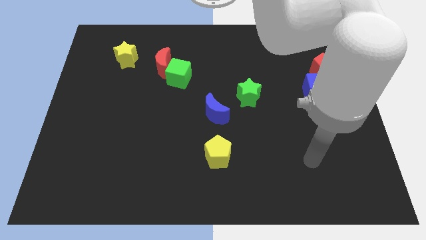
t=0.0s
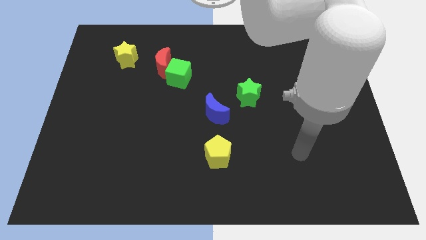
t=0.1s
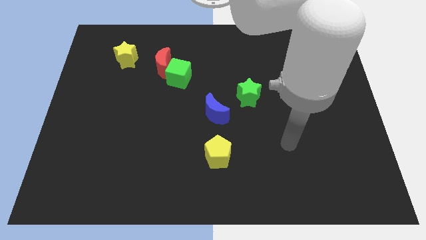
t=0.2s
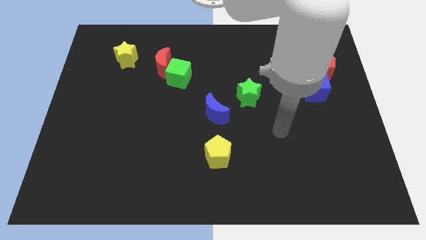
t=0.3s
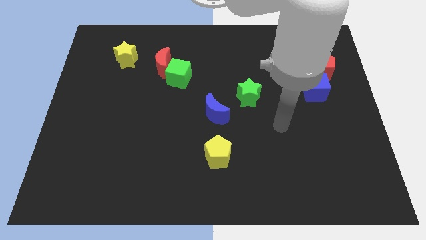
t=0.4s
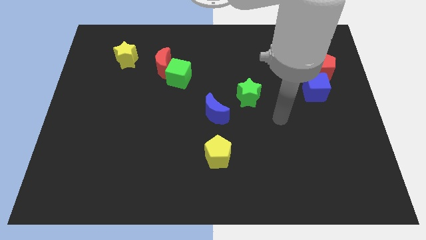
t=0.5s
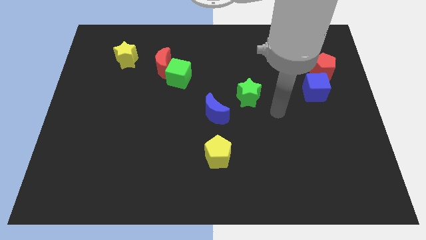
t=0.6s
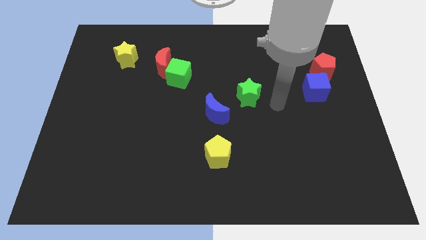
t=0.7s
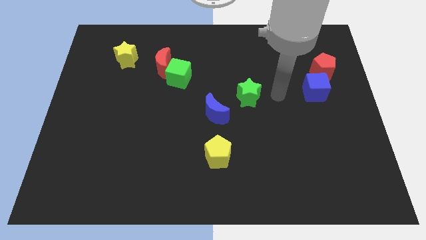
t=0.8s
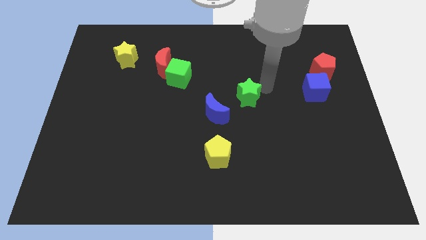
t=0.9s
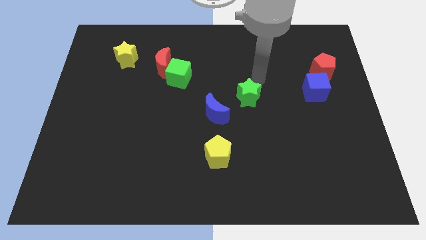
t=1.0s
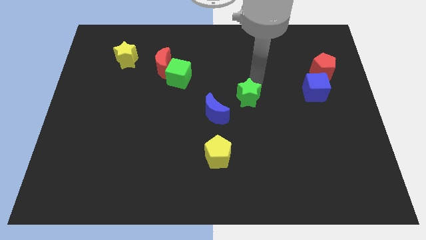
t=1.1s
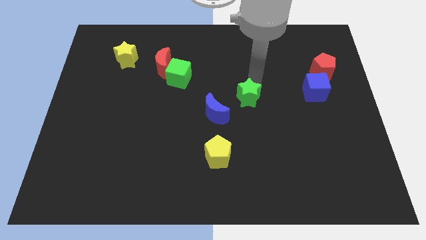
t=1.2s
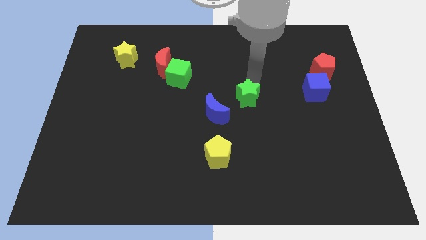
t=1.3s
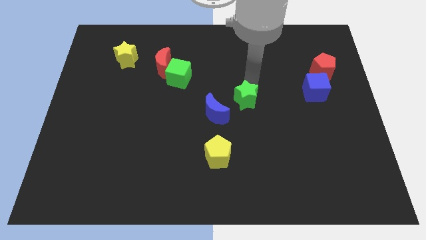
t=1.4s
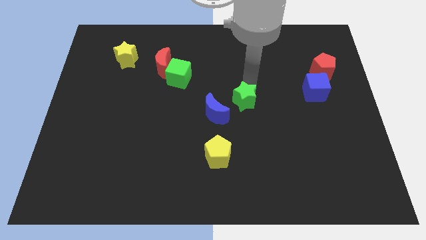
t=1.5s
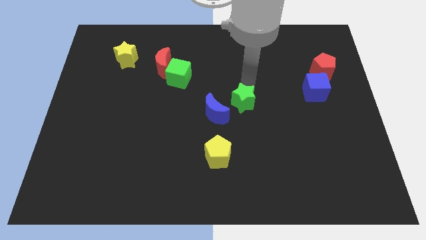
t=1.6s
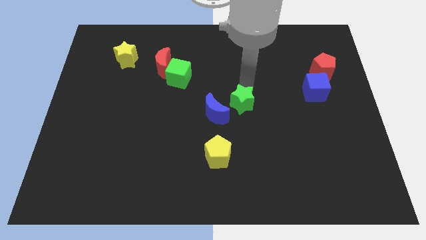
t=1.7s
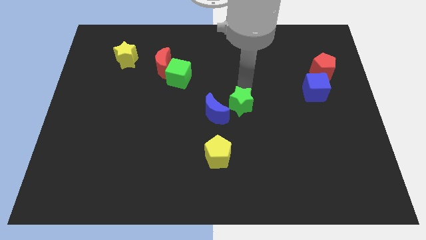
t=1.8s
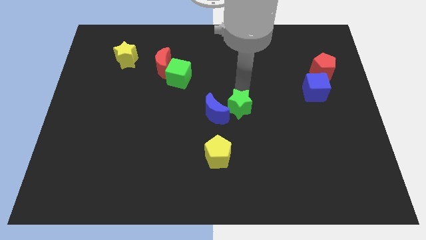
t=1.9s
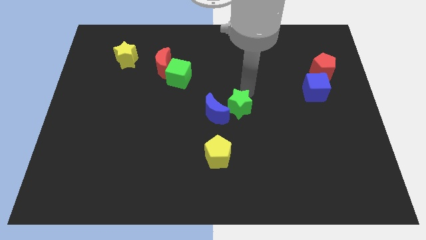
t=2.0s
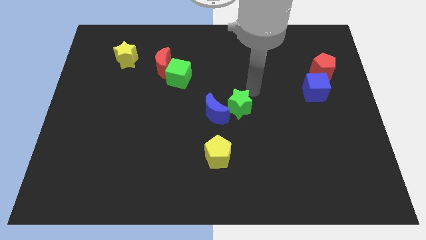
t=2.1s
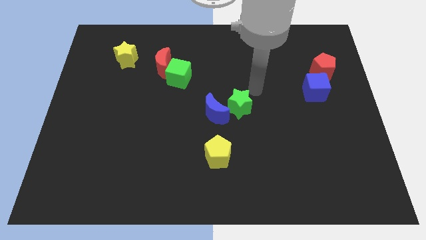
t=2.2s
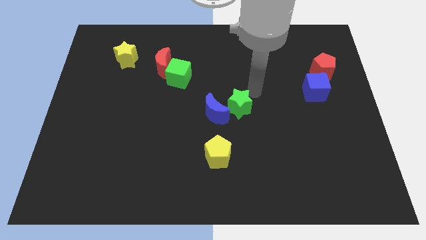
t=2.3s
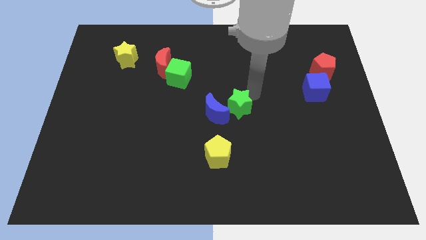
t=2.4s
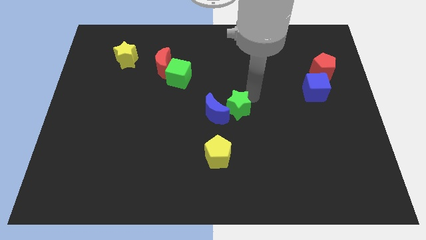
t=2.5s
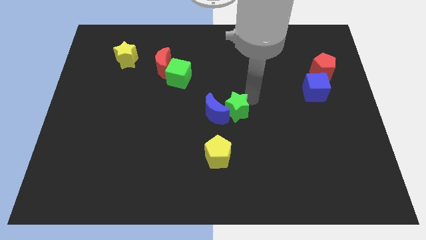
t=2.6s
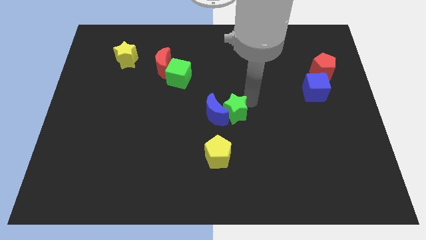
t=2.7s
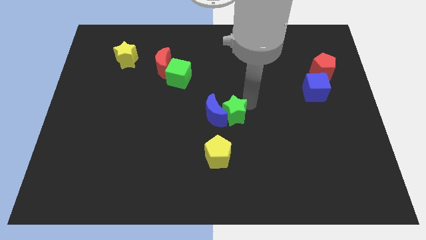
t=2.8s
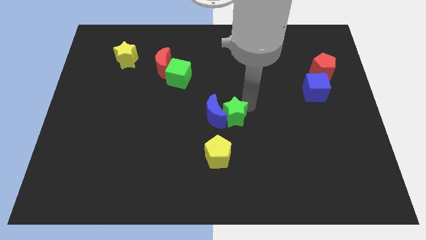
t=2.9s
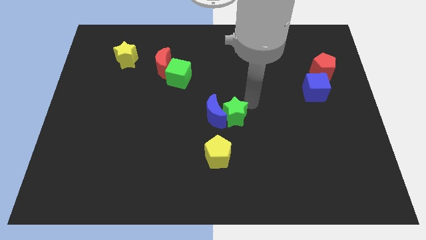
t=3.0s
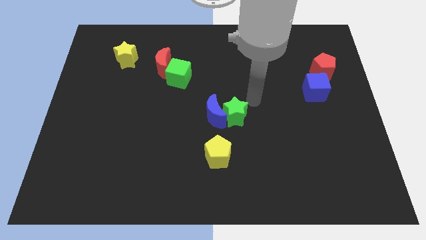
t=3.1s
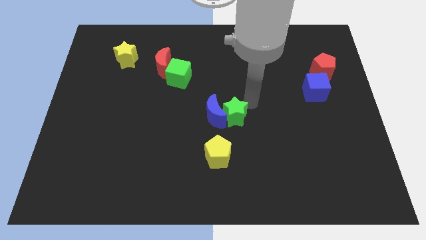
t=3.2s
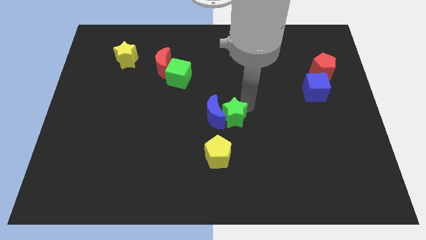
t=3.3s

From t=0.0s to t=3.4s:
slide the green star a little diagonally downwards and to the left

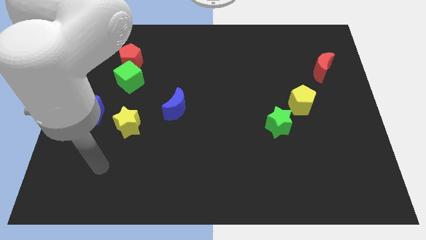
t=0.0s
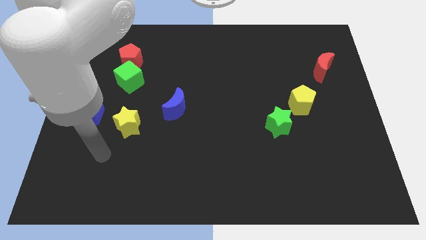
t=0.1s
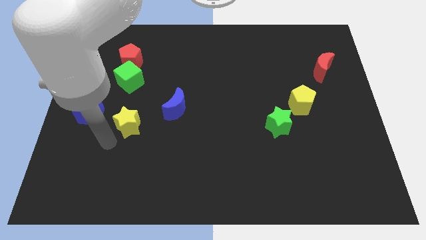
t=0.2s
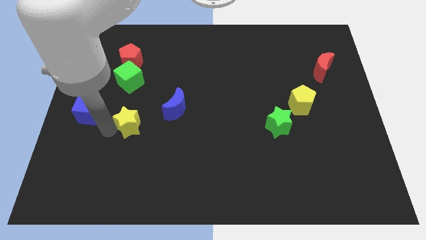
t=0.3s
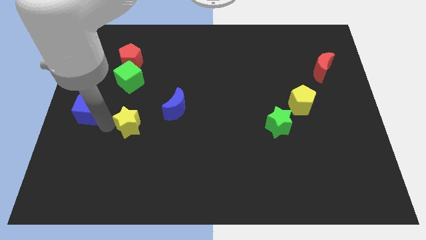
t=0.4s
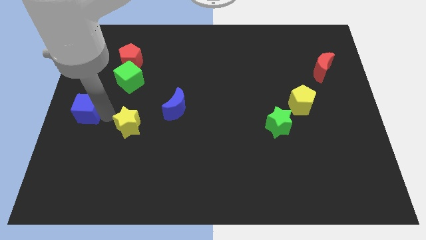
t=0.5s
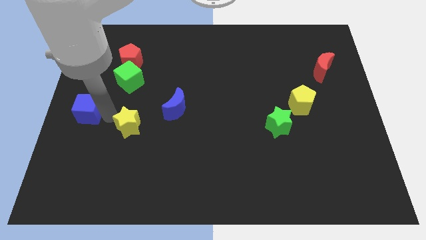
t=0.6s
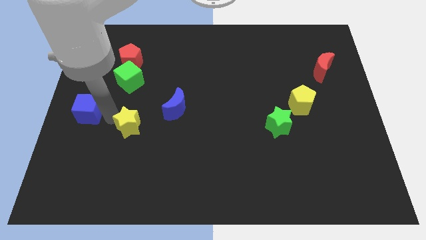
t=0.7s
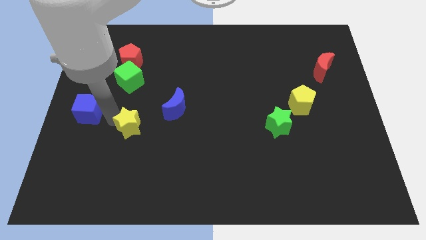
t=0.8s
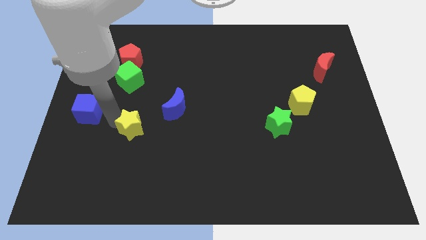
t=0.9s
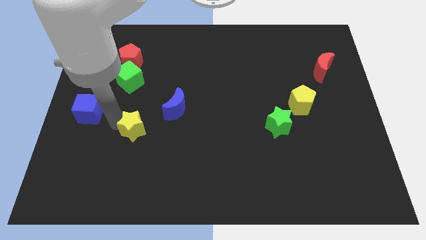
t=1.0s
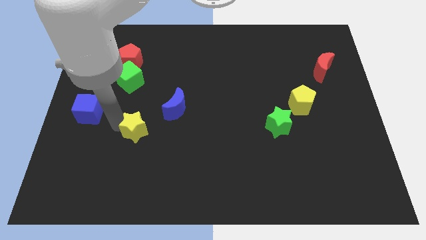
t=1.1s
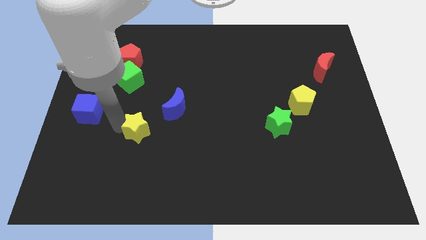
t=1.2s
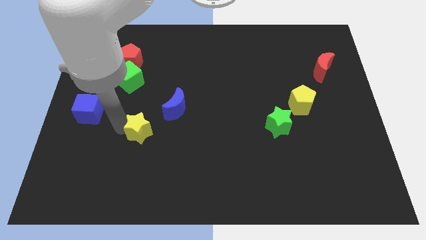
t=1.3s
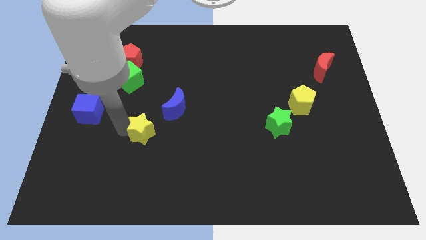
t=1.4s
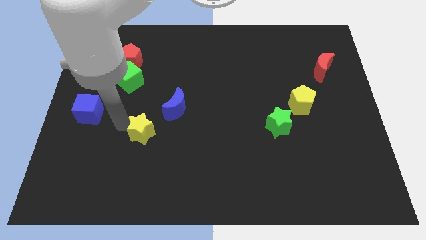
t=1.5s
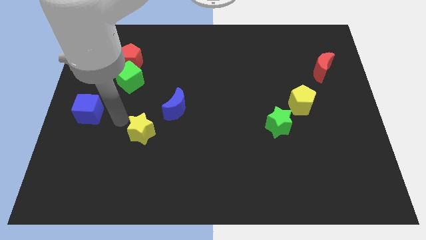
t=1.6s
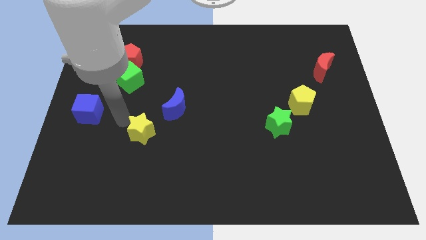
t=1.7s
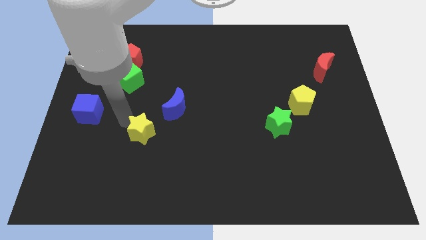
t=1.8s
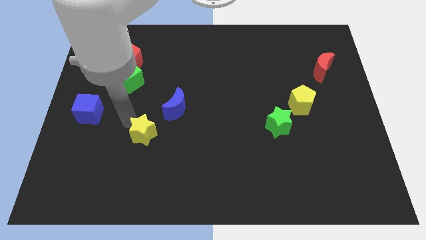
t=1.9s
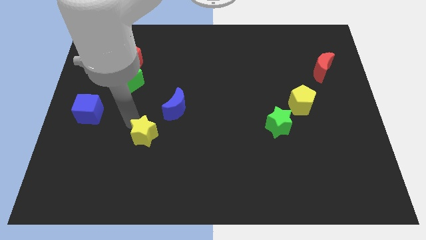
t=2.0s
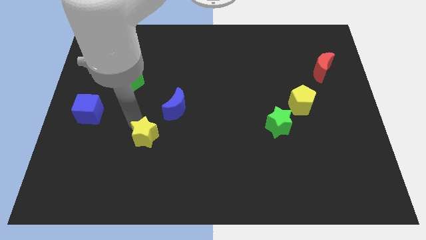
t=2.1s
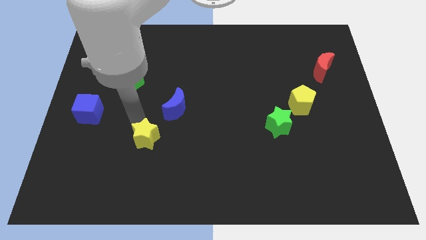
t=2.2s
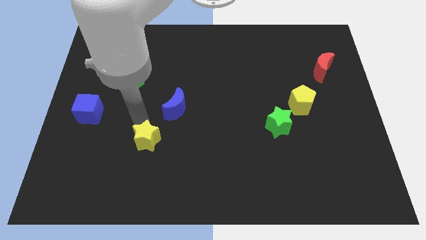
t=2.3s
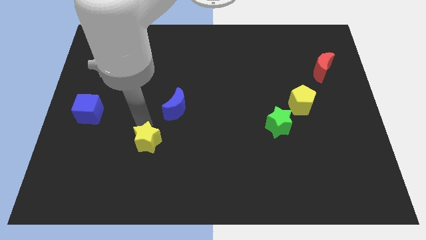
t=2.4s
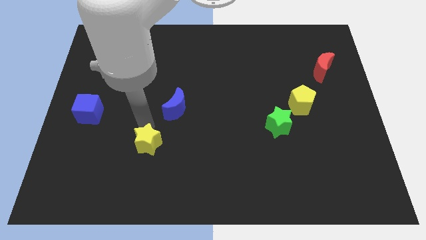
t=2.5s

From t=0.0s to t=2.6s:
push the yellow star down and right diagonally a little bit

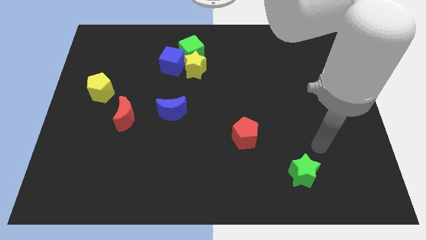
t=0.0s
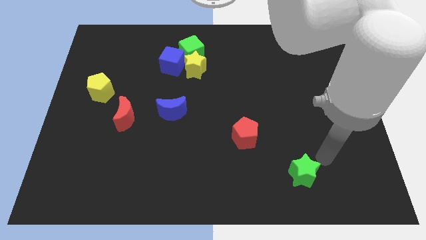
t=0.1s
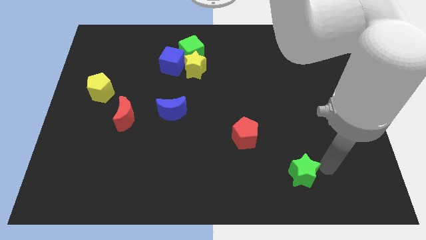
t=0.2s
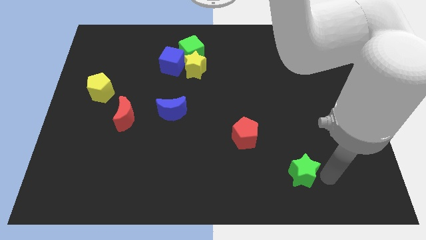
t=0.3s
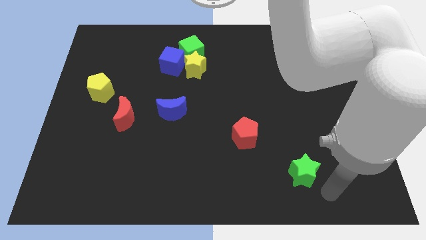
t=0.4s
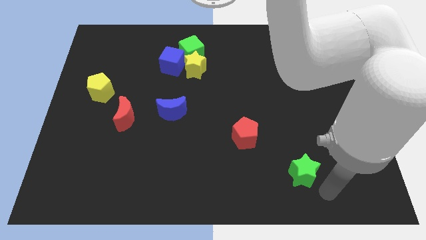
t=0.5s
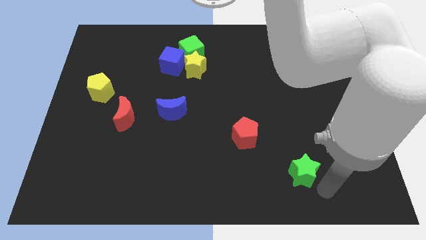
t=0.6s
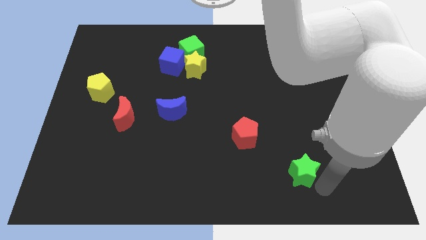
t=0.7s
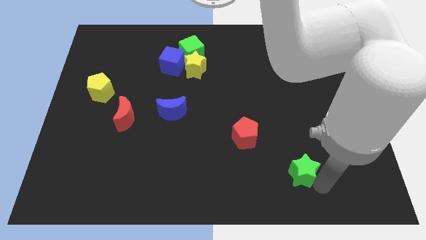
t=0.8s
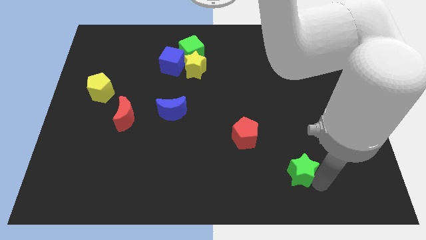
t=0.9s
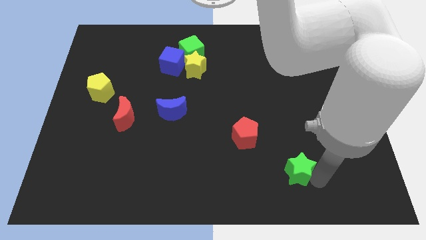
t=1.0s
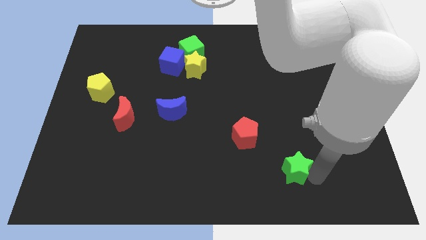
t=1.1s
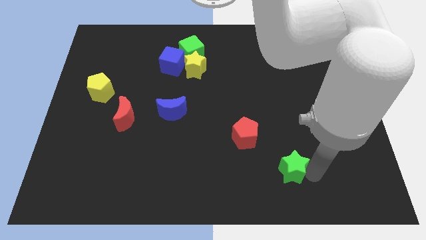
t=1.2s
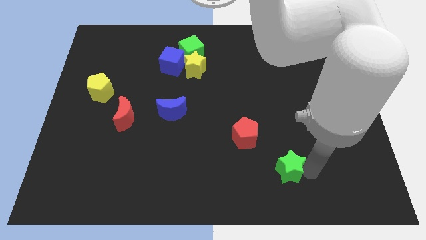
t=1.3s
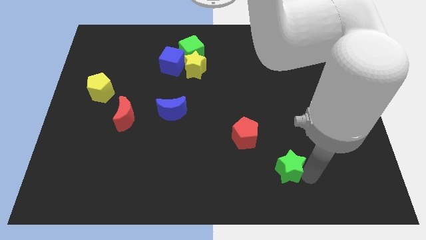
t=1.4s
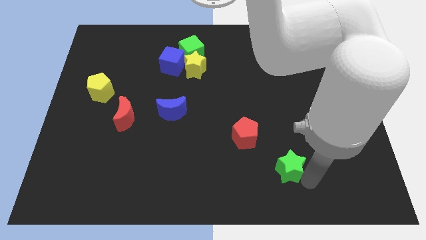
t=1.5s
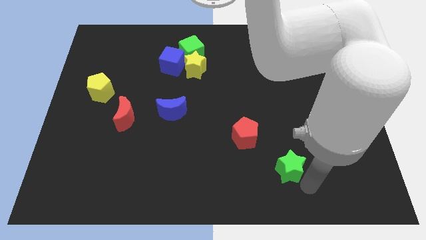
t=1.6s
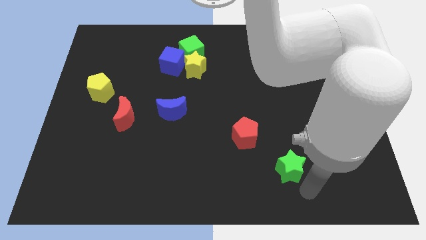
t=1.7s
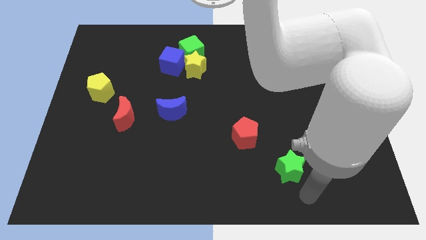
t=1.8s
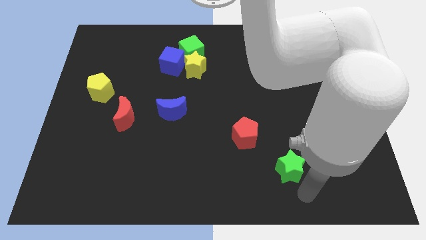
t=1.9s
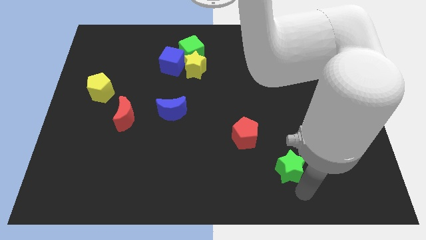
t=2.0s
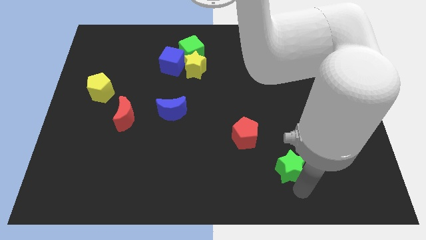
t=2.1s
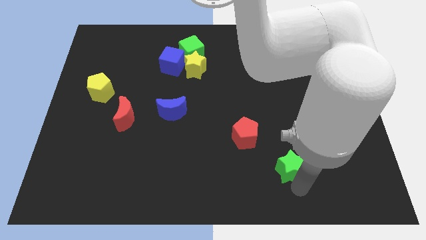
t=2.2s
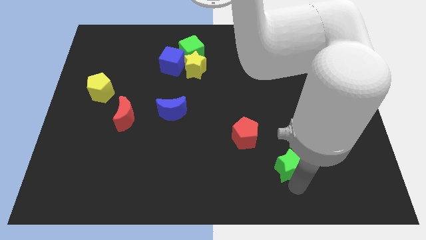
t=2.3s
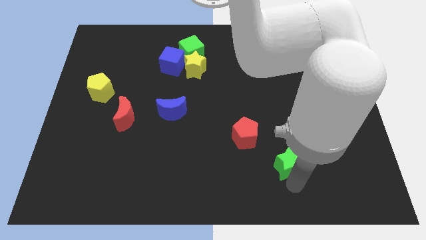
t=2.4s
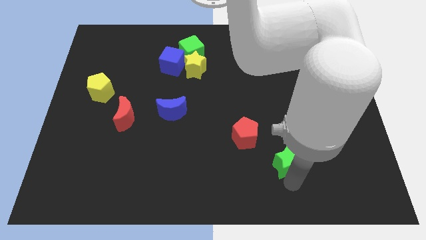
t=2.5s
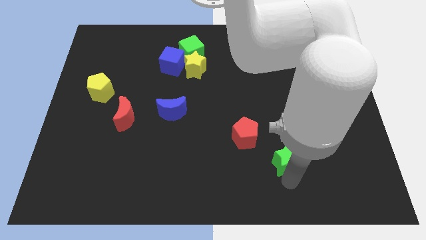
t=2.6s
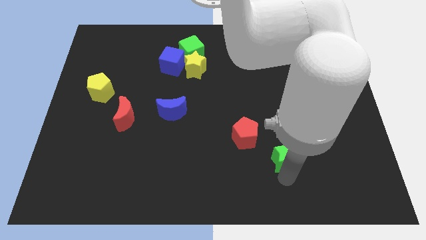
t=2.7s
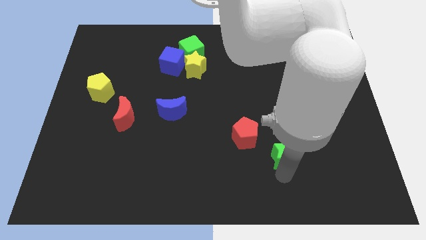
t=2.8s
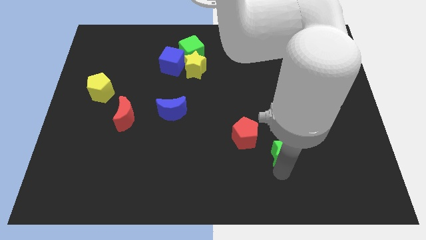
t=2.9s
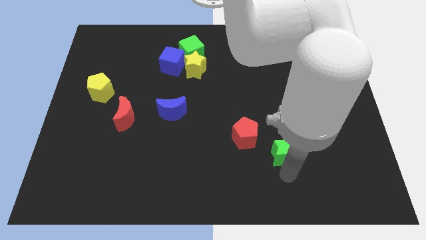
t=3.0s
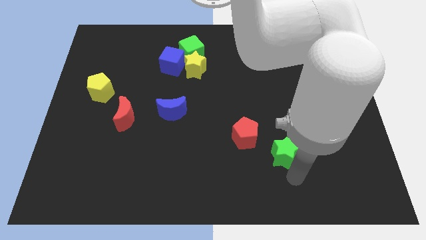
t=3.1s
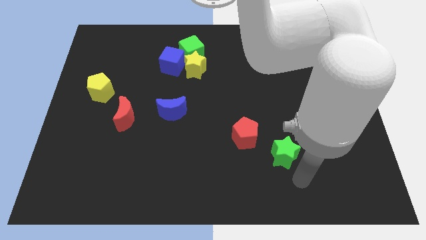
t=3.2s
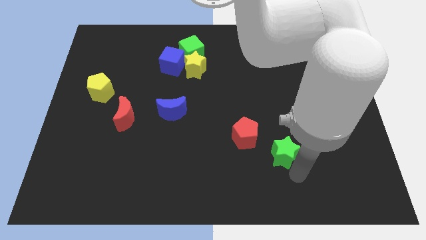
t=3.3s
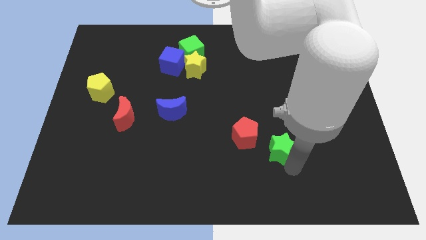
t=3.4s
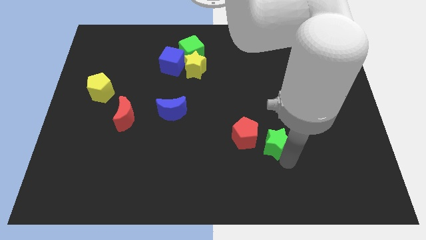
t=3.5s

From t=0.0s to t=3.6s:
slightly slide the green star diagonally upwards and left
